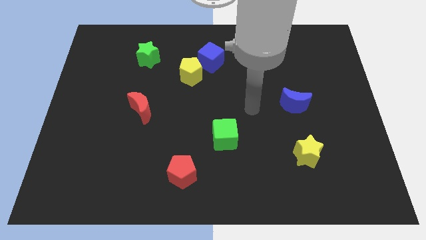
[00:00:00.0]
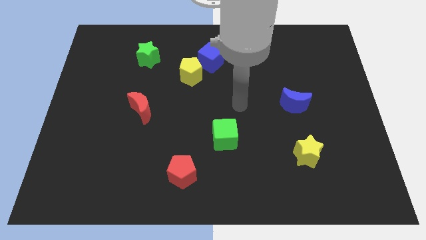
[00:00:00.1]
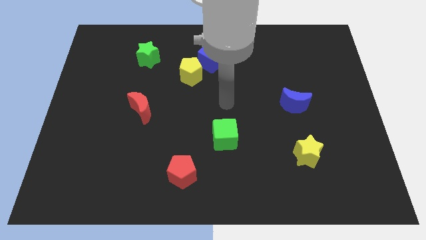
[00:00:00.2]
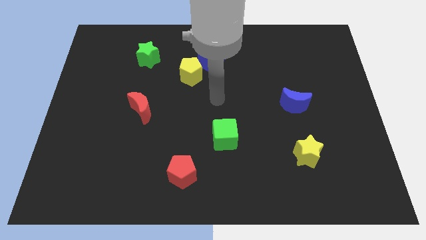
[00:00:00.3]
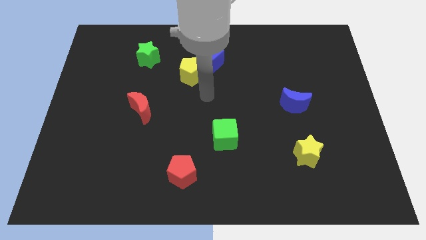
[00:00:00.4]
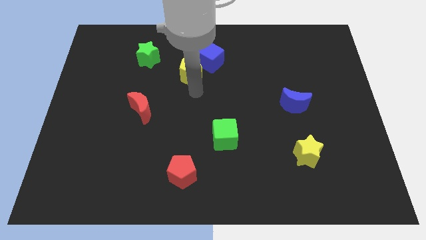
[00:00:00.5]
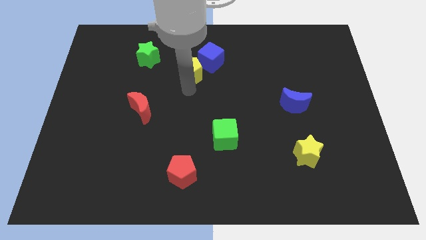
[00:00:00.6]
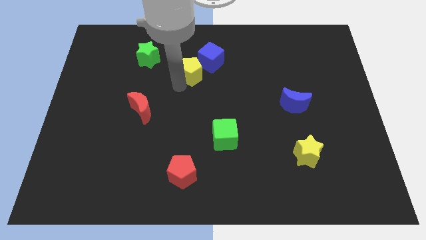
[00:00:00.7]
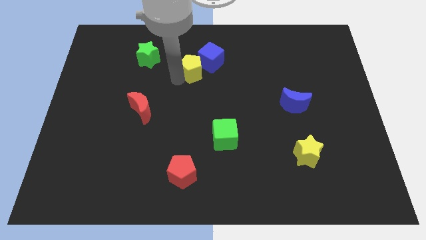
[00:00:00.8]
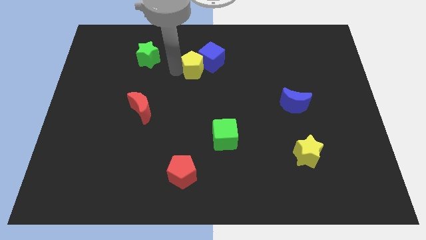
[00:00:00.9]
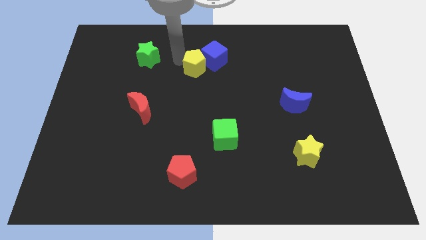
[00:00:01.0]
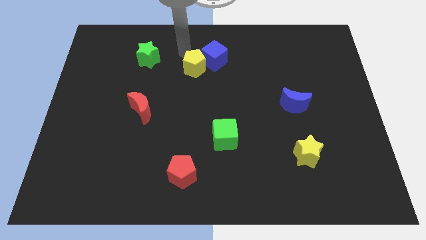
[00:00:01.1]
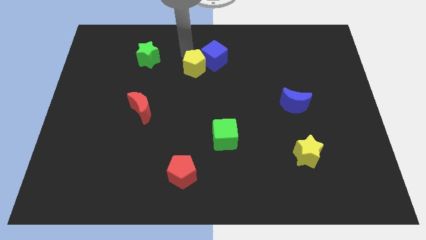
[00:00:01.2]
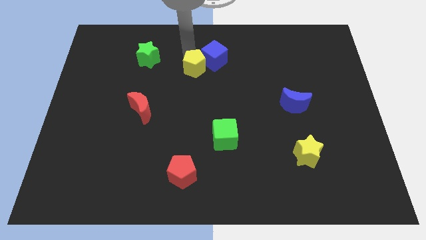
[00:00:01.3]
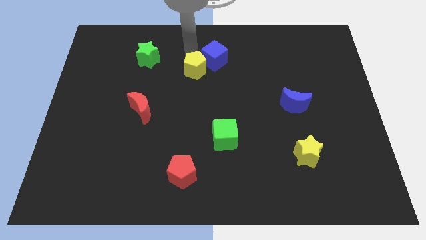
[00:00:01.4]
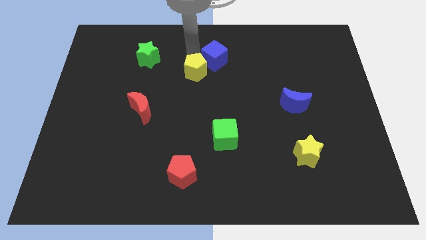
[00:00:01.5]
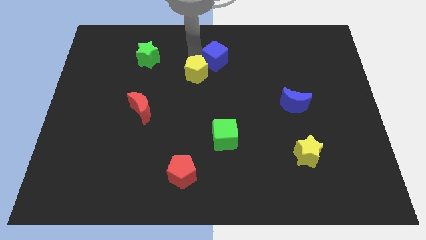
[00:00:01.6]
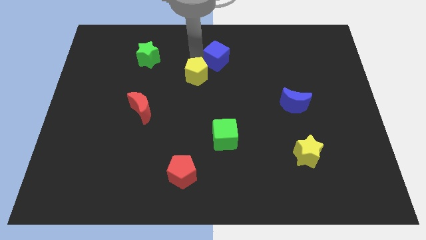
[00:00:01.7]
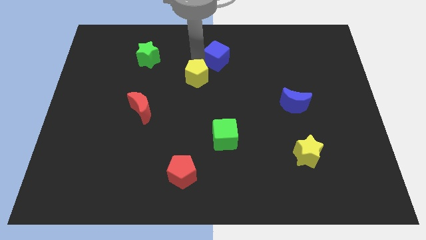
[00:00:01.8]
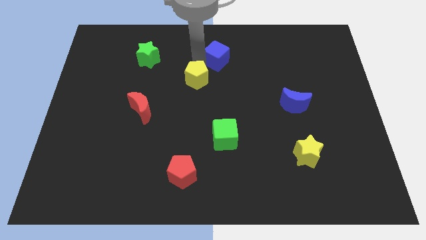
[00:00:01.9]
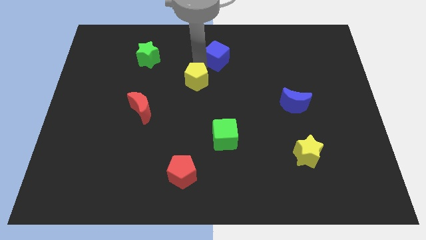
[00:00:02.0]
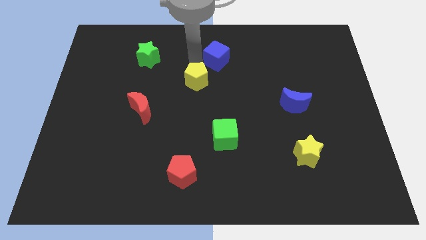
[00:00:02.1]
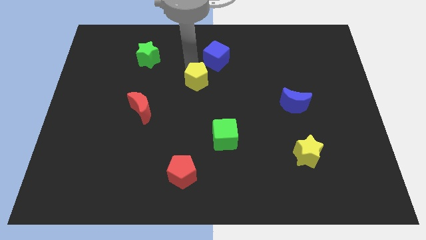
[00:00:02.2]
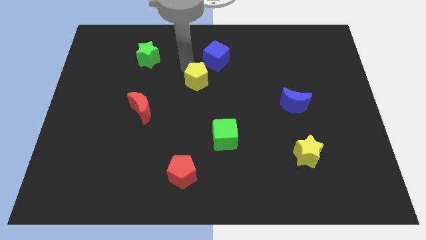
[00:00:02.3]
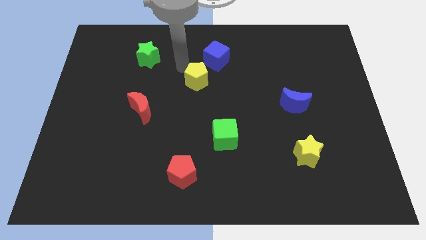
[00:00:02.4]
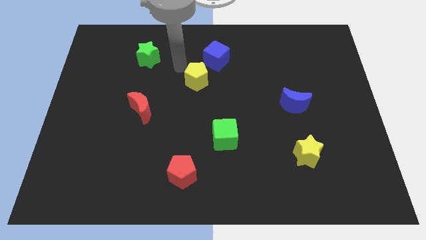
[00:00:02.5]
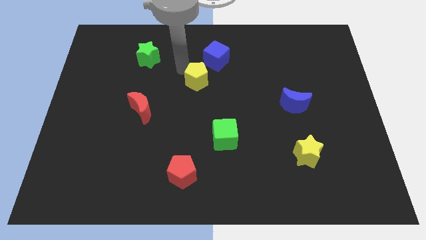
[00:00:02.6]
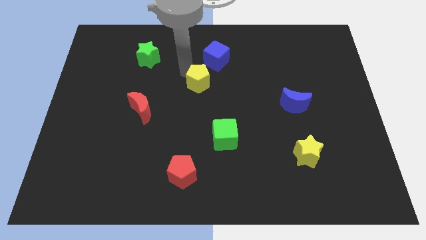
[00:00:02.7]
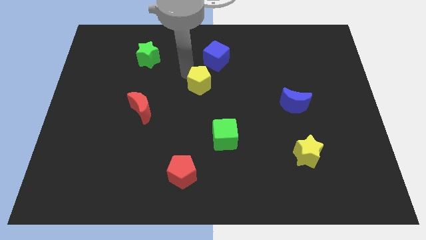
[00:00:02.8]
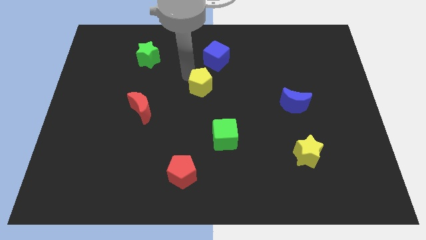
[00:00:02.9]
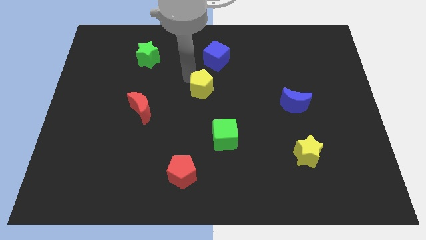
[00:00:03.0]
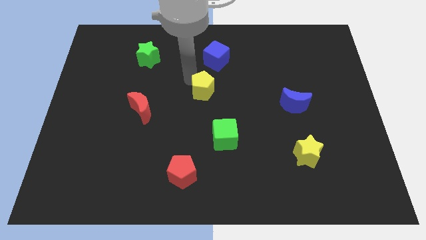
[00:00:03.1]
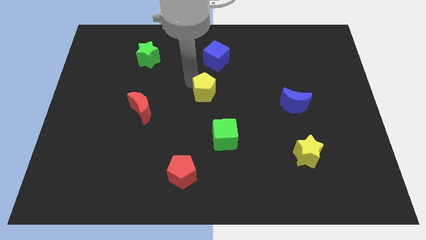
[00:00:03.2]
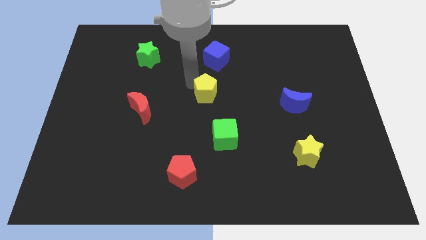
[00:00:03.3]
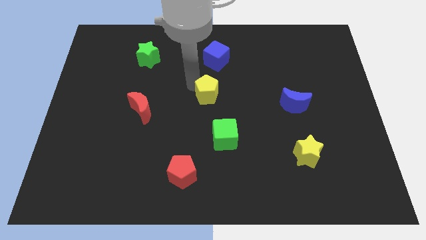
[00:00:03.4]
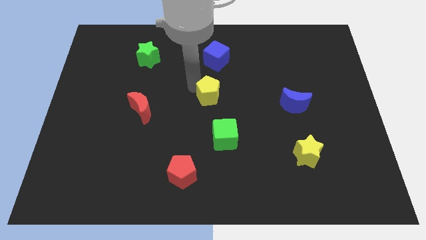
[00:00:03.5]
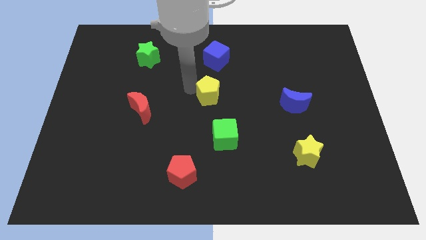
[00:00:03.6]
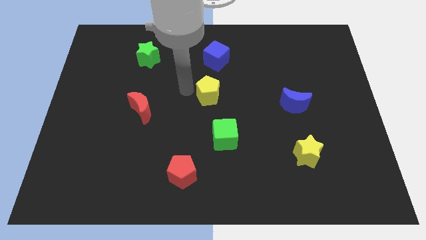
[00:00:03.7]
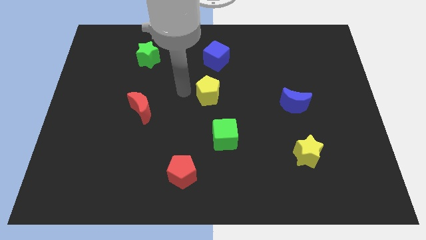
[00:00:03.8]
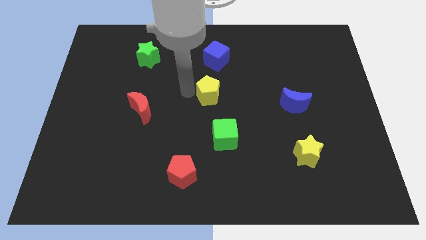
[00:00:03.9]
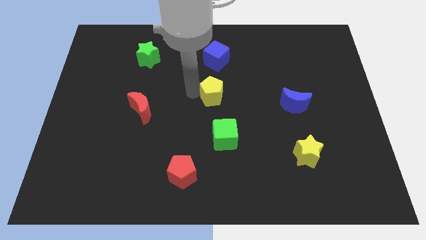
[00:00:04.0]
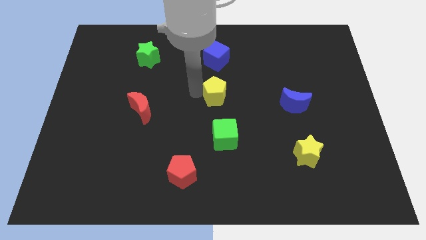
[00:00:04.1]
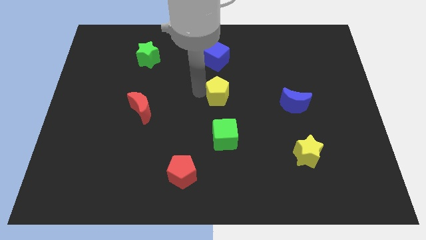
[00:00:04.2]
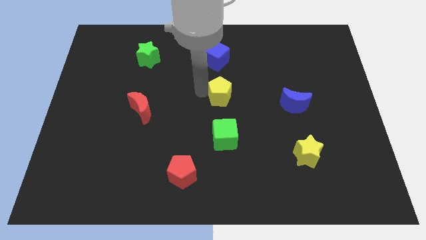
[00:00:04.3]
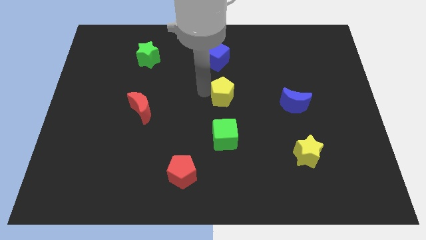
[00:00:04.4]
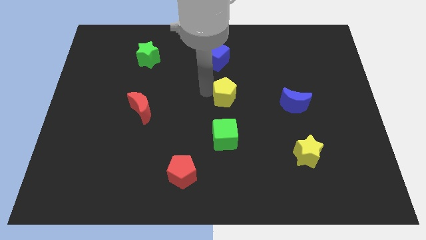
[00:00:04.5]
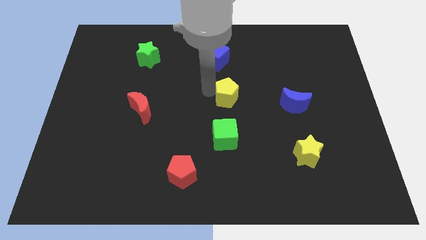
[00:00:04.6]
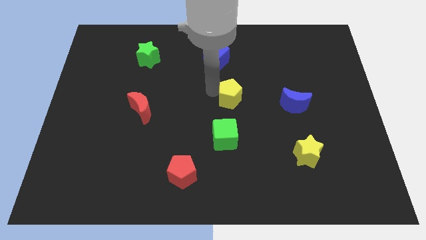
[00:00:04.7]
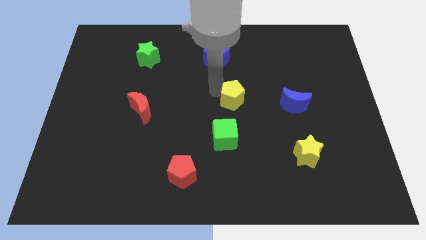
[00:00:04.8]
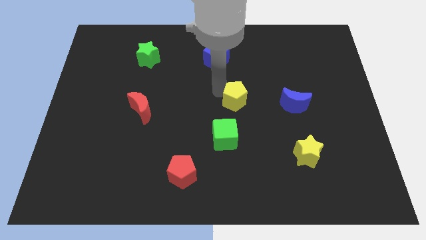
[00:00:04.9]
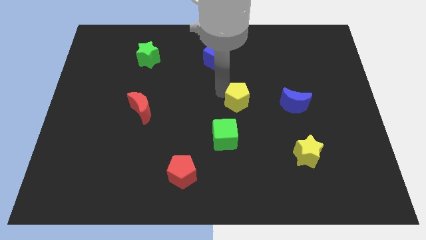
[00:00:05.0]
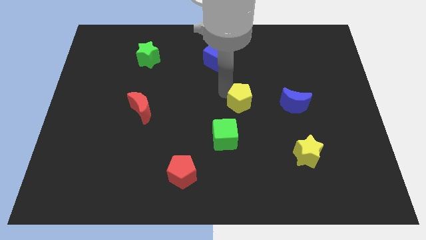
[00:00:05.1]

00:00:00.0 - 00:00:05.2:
slide the yellow pentagon diagonally up and to the right of the green cube
